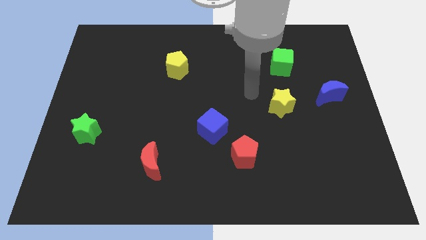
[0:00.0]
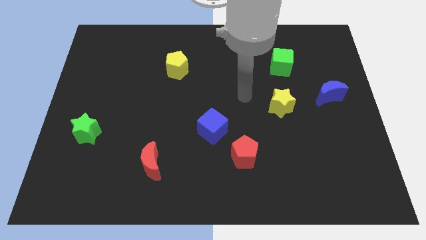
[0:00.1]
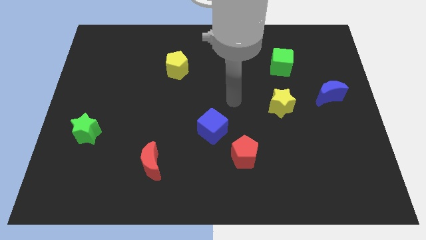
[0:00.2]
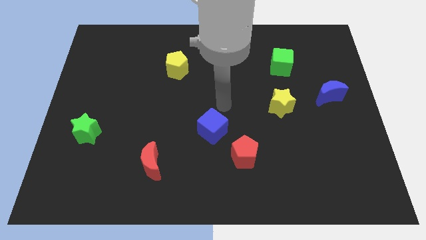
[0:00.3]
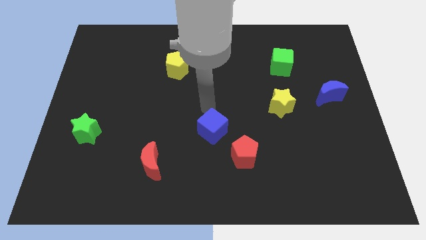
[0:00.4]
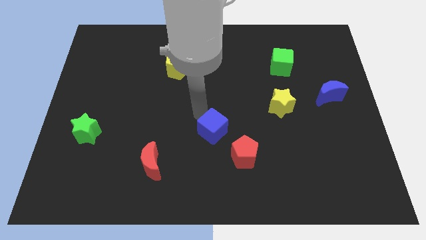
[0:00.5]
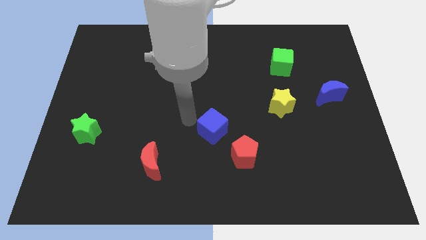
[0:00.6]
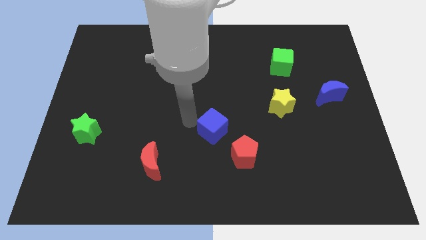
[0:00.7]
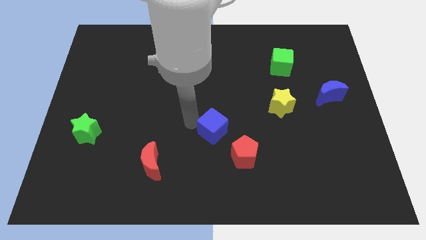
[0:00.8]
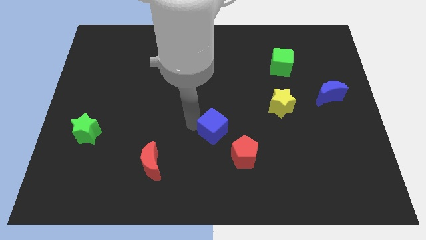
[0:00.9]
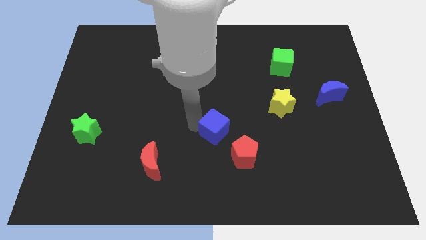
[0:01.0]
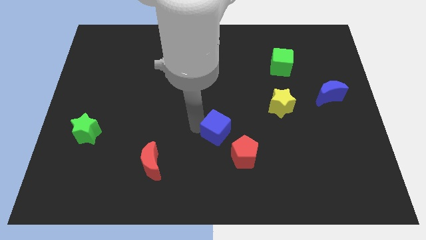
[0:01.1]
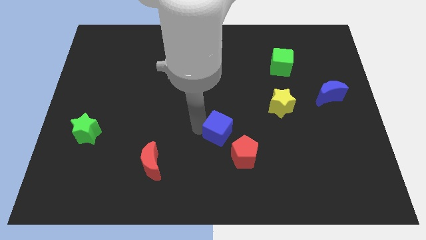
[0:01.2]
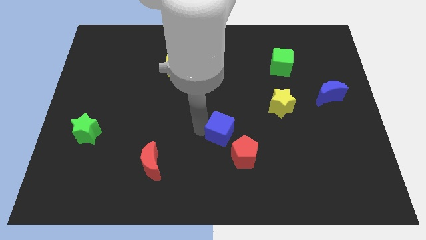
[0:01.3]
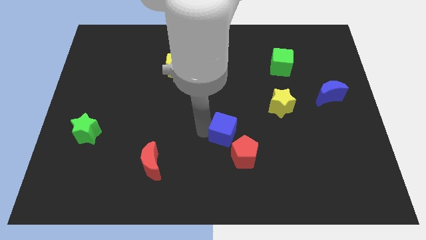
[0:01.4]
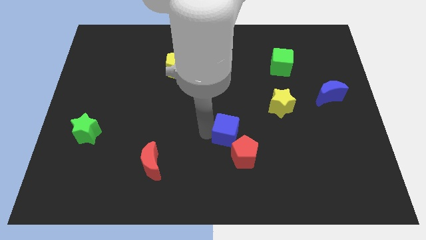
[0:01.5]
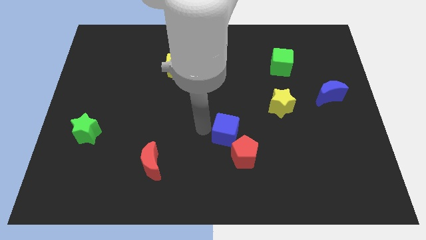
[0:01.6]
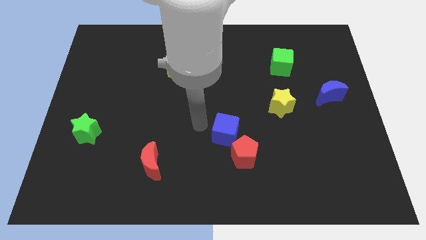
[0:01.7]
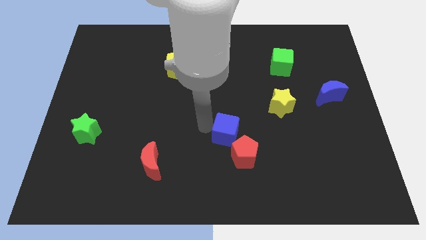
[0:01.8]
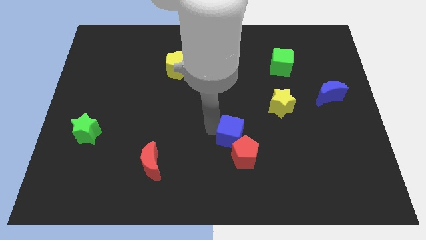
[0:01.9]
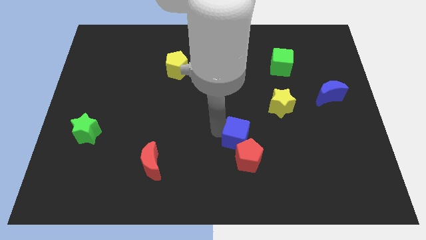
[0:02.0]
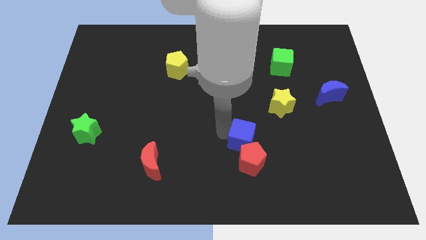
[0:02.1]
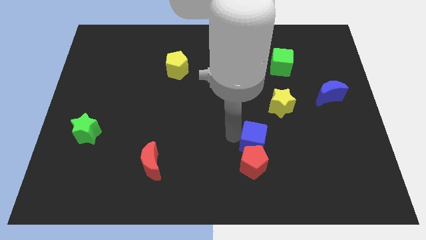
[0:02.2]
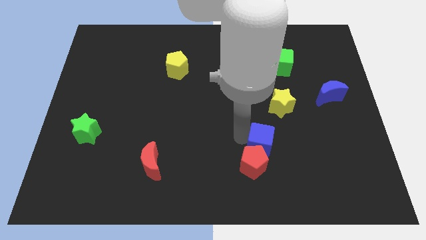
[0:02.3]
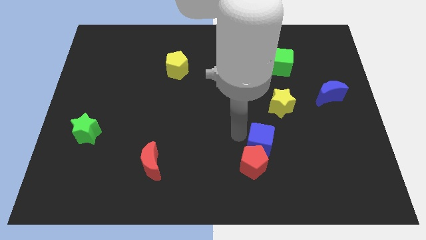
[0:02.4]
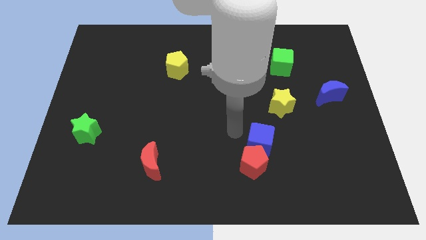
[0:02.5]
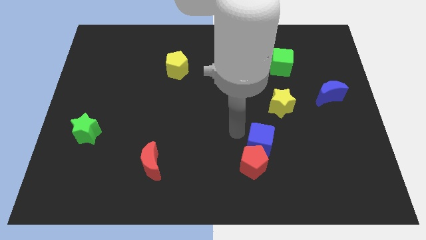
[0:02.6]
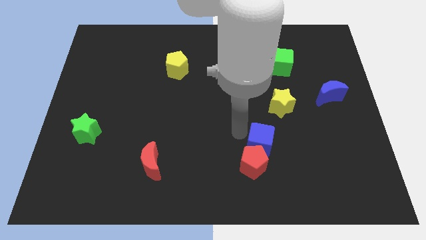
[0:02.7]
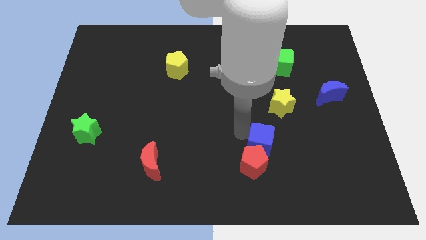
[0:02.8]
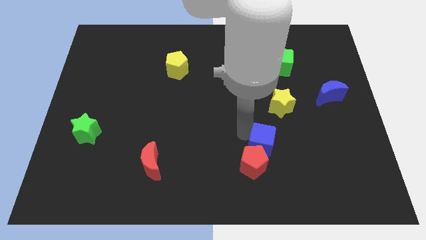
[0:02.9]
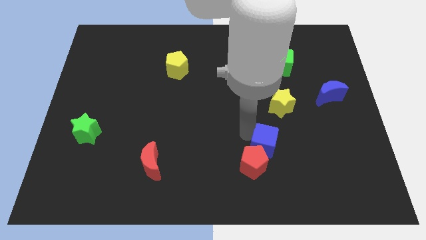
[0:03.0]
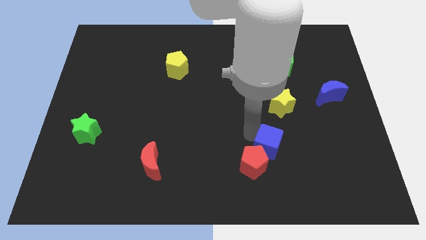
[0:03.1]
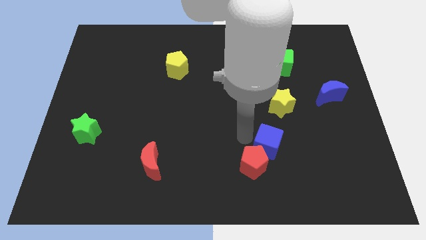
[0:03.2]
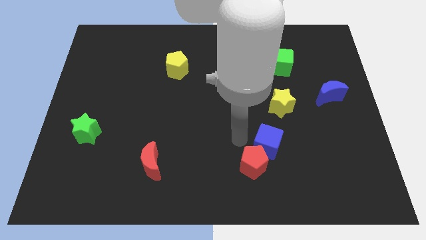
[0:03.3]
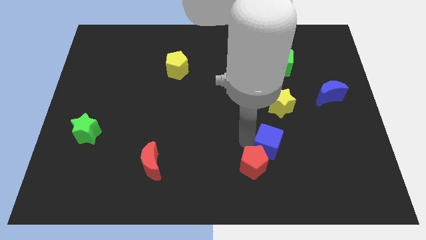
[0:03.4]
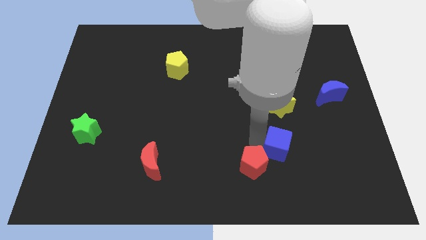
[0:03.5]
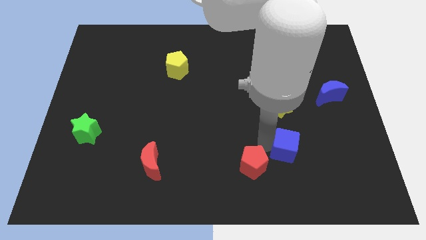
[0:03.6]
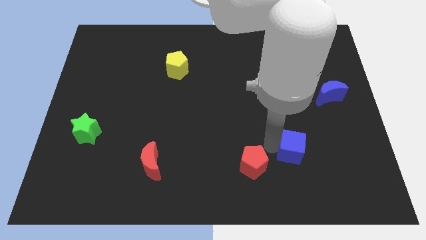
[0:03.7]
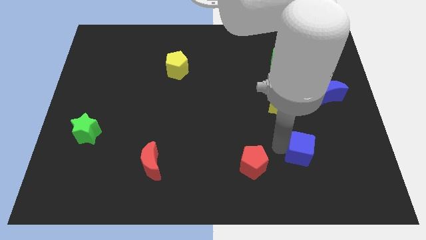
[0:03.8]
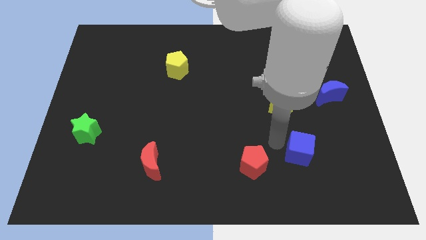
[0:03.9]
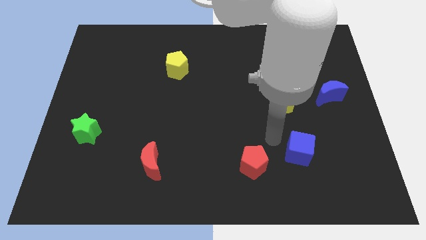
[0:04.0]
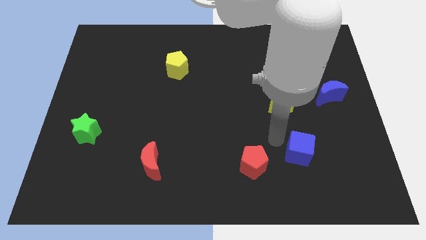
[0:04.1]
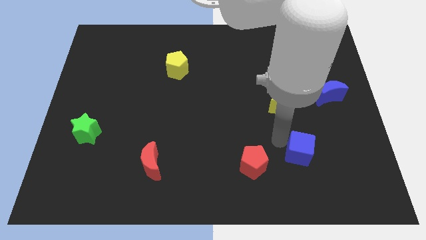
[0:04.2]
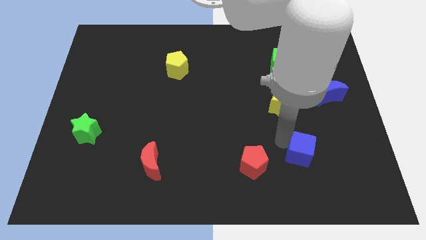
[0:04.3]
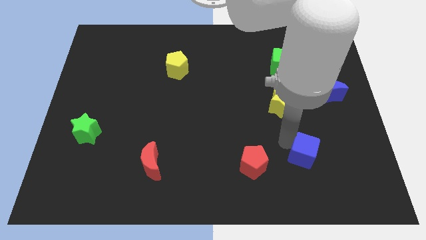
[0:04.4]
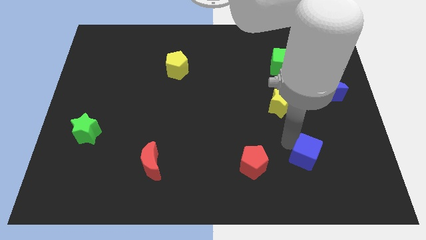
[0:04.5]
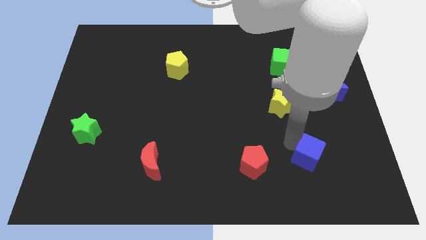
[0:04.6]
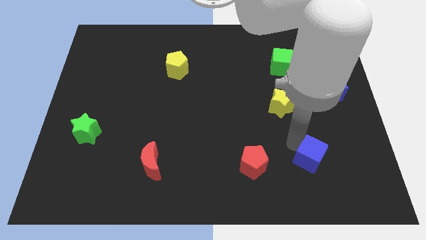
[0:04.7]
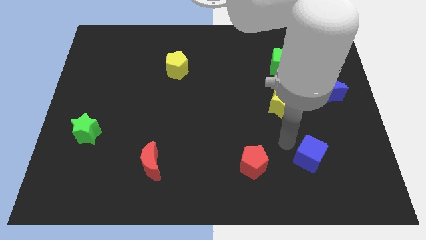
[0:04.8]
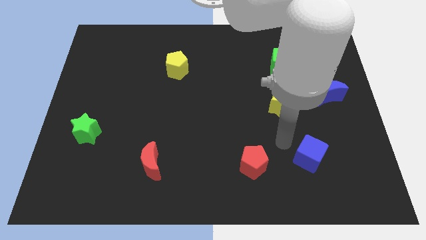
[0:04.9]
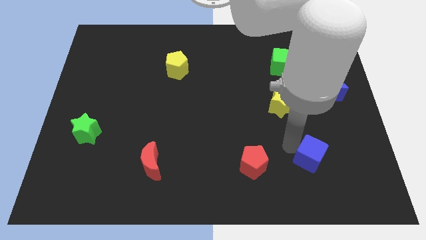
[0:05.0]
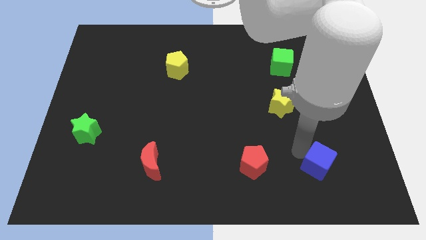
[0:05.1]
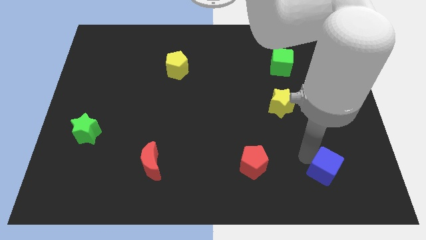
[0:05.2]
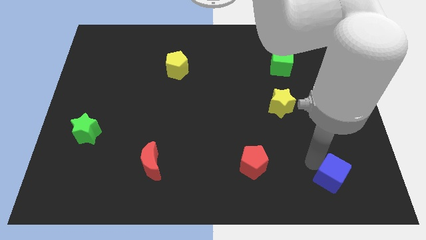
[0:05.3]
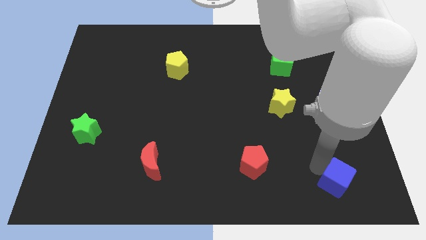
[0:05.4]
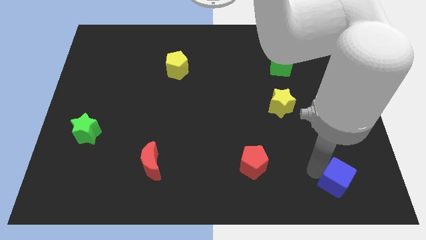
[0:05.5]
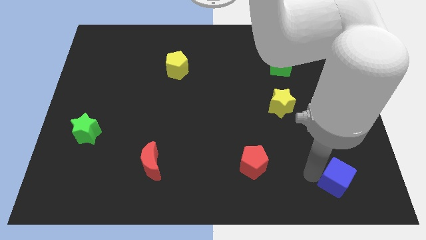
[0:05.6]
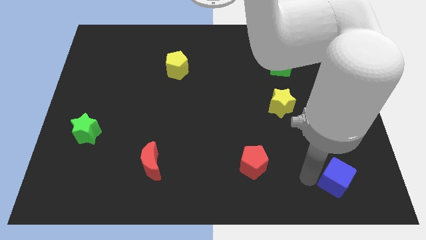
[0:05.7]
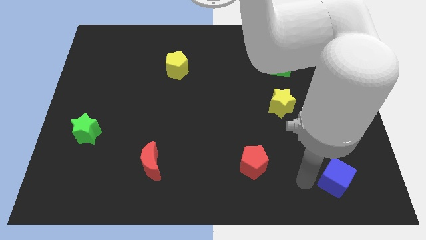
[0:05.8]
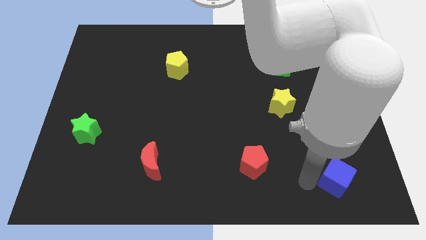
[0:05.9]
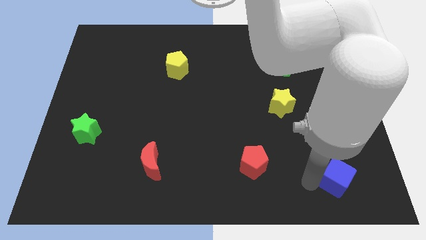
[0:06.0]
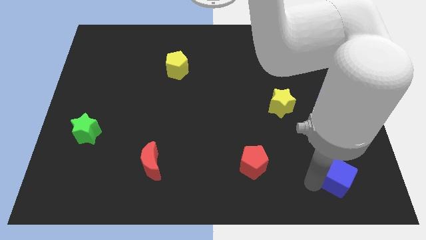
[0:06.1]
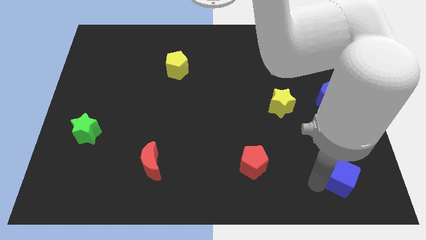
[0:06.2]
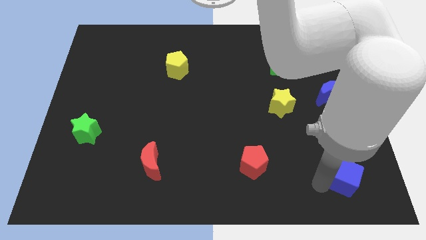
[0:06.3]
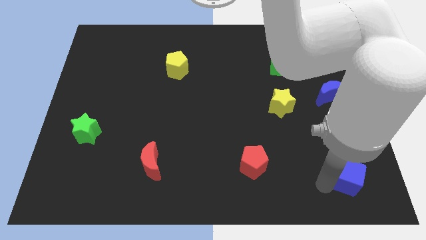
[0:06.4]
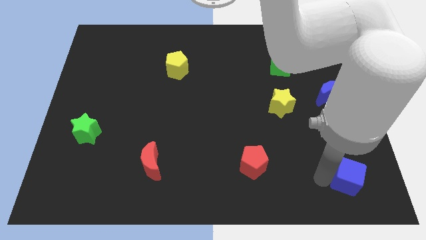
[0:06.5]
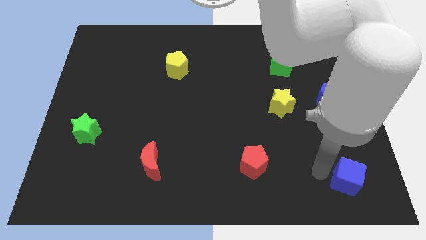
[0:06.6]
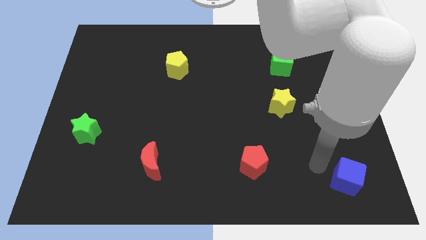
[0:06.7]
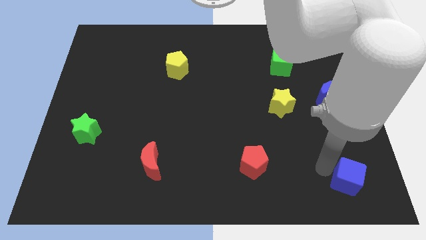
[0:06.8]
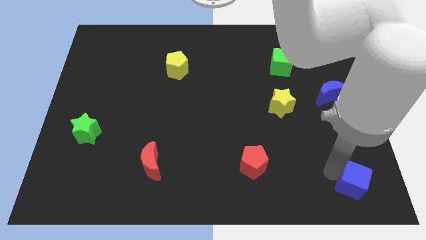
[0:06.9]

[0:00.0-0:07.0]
put the blue cube to the bottom right corner
